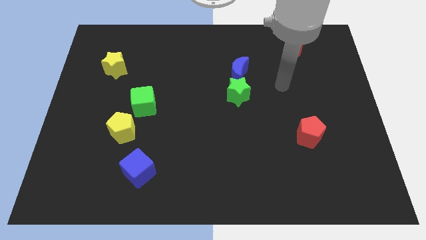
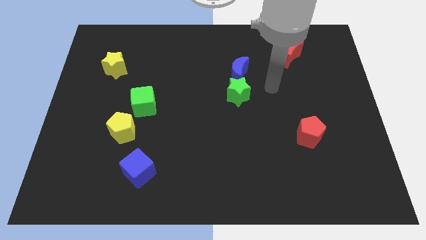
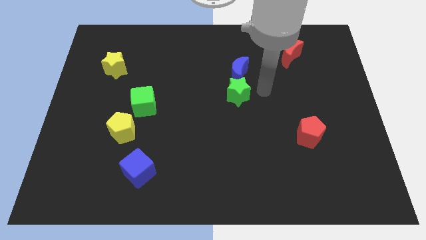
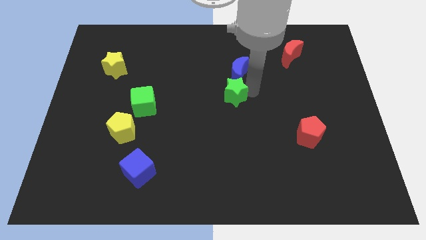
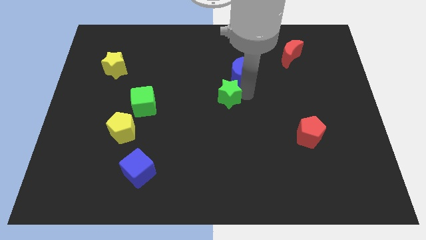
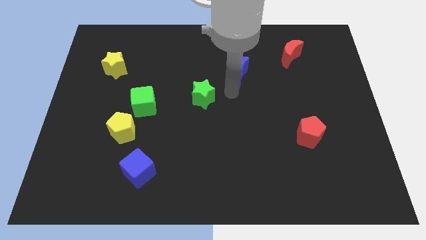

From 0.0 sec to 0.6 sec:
pull the blue moon apart from the green star

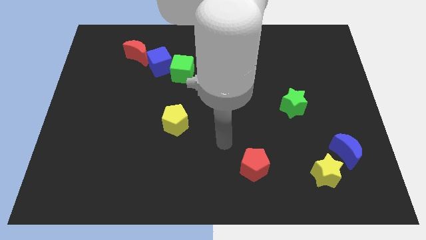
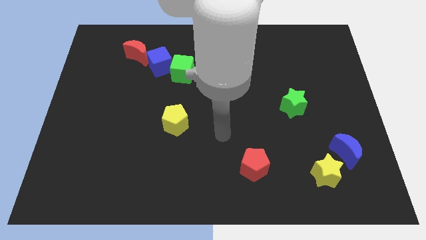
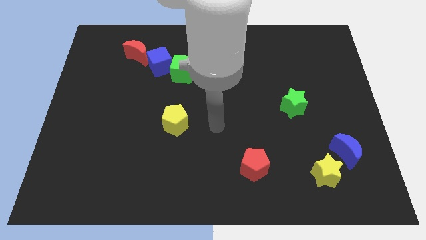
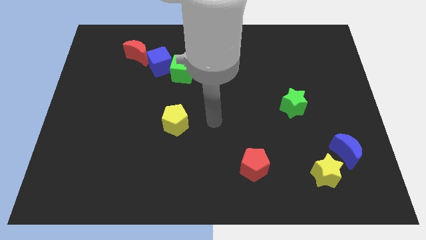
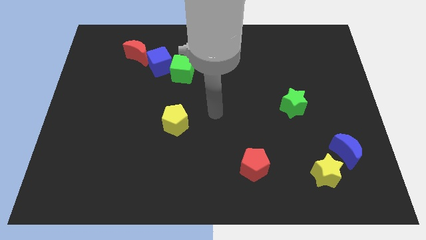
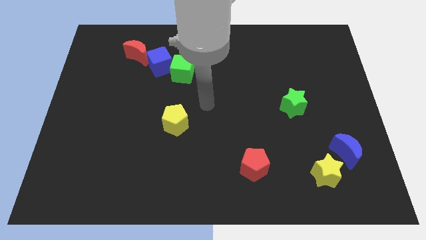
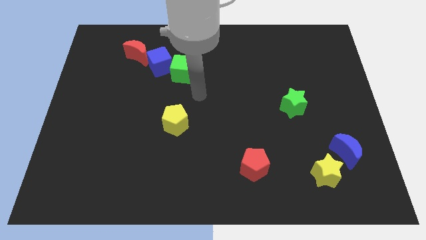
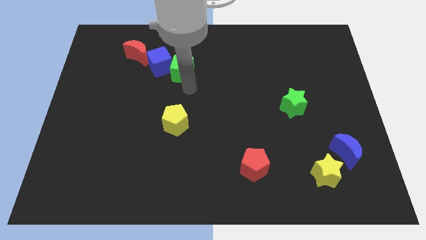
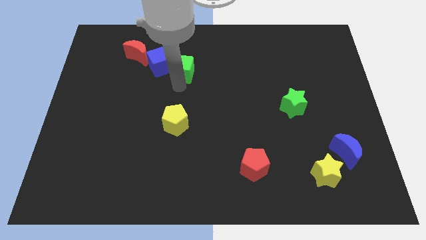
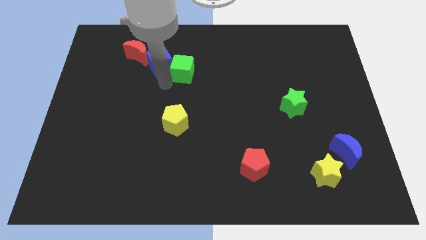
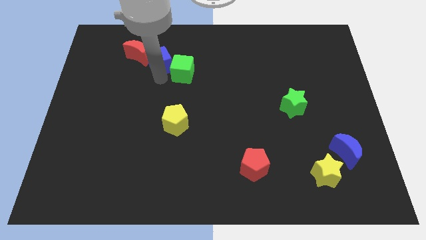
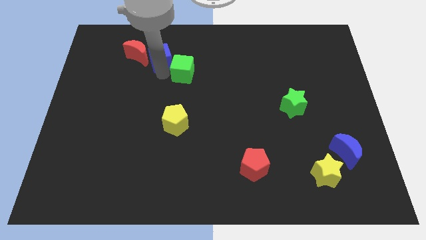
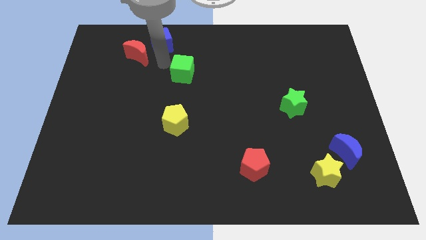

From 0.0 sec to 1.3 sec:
pull the green cube apart from the blue cube

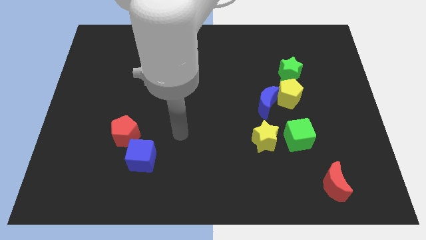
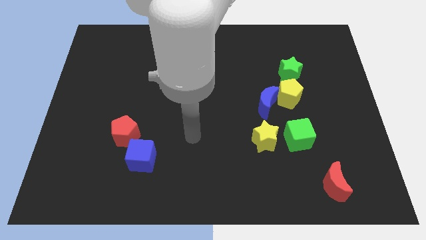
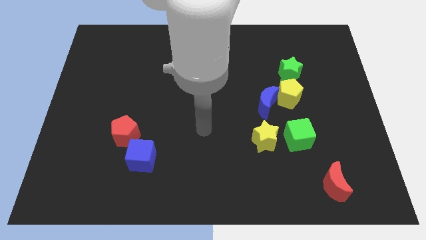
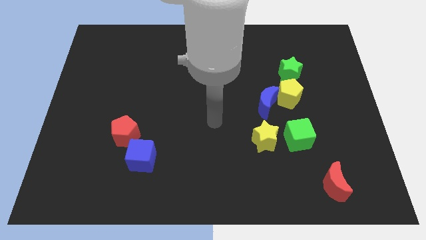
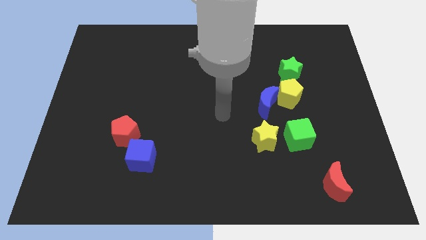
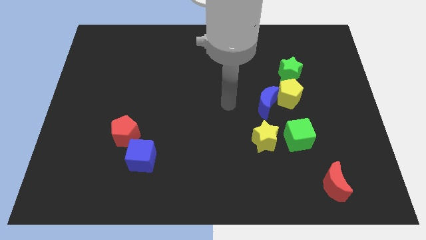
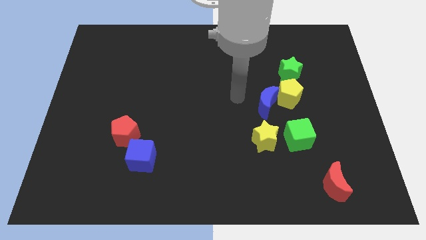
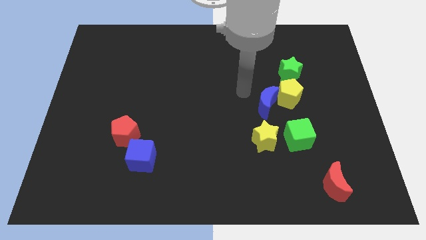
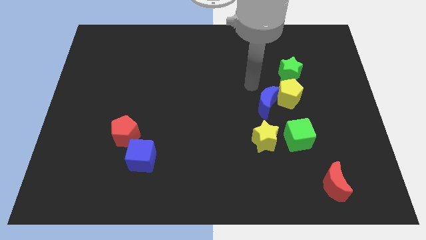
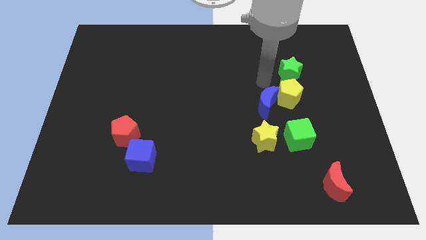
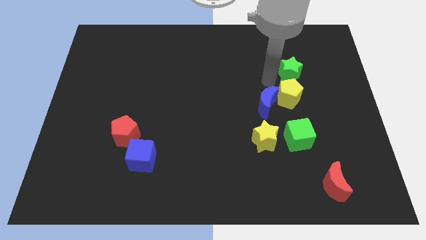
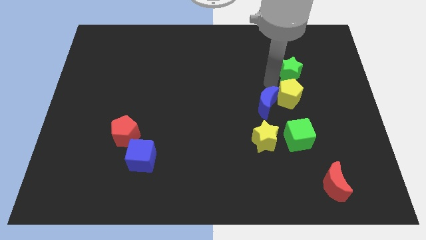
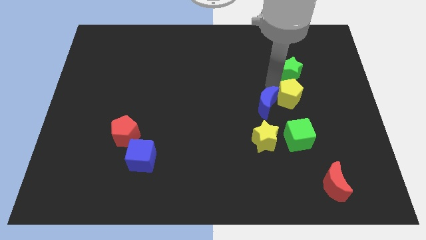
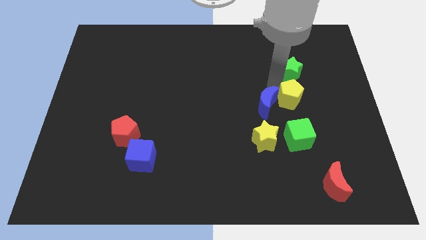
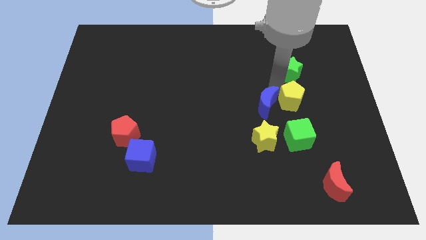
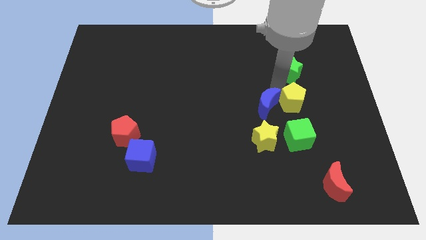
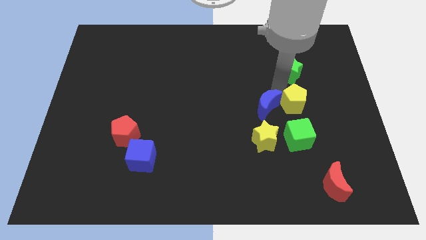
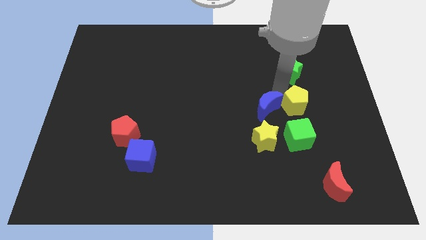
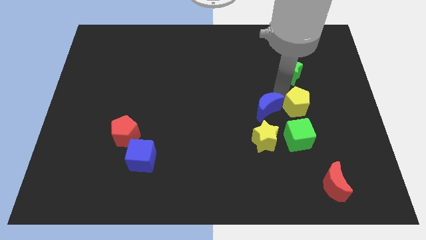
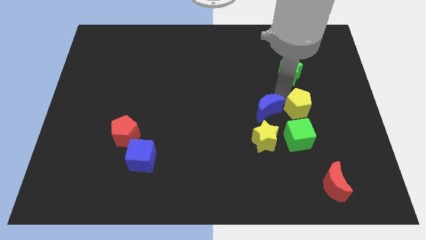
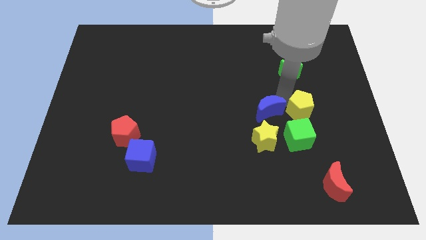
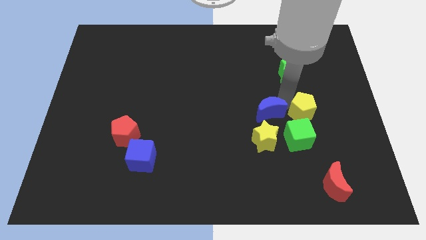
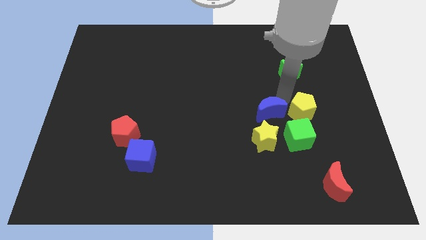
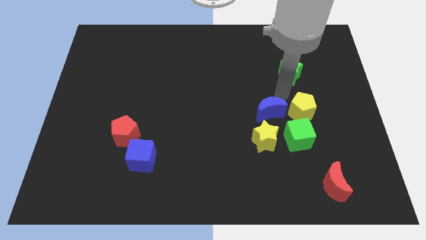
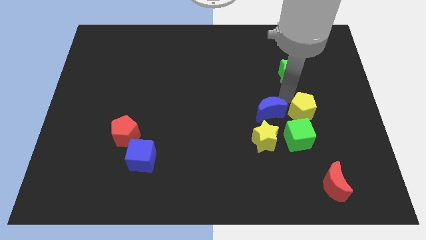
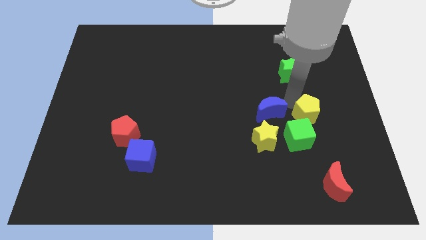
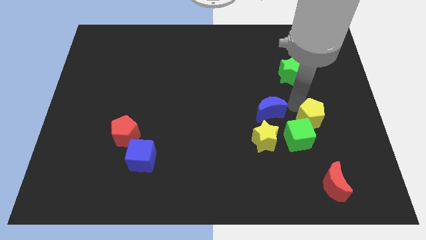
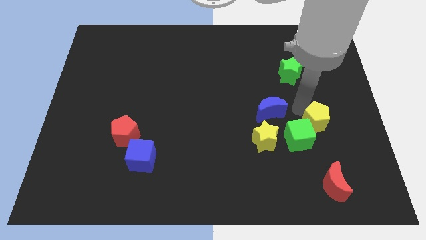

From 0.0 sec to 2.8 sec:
separate the yellow pentagon from the blue moon and green star

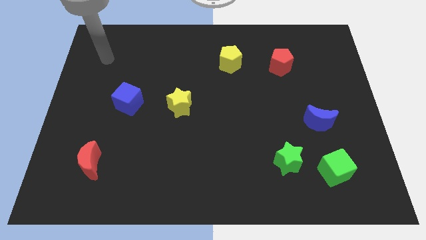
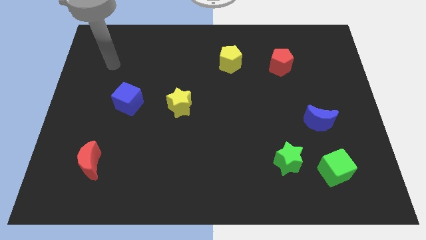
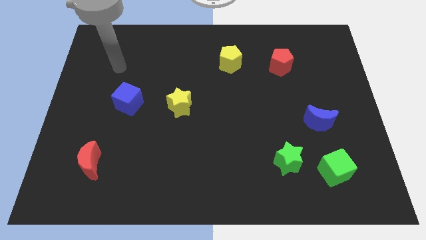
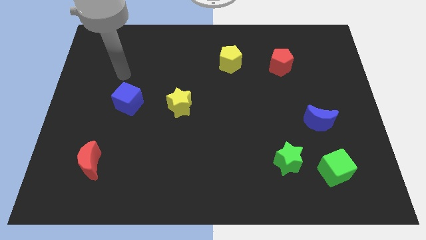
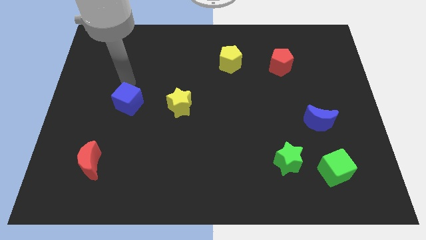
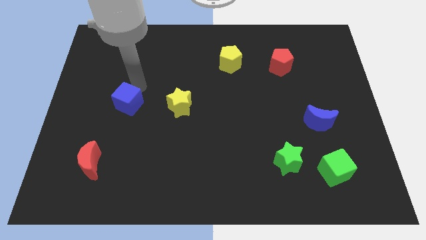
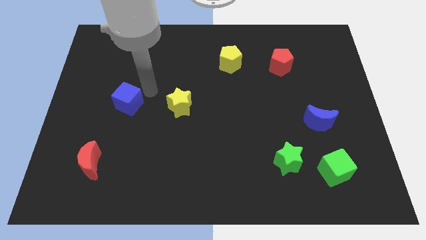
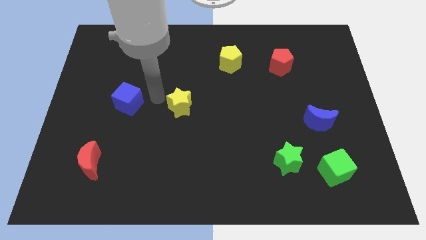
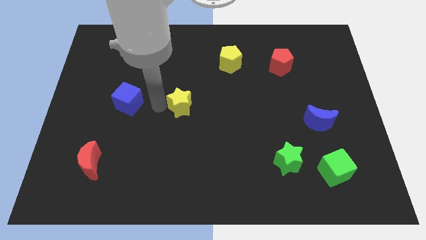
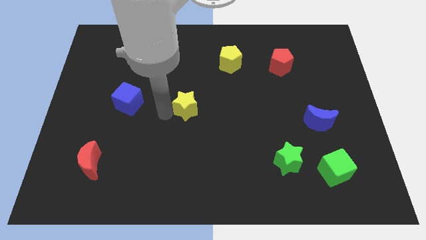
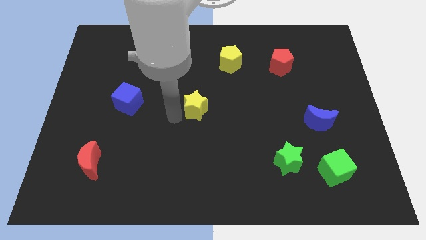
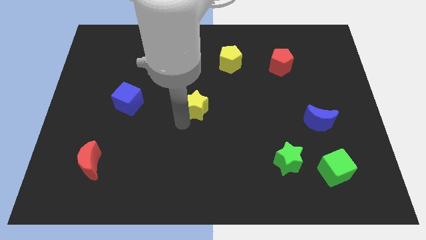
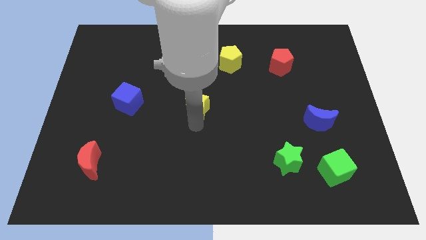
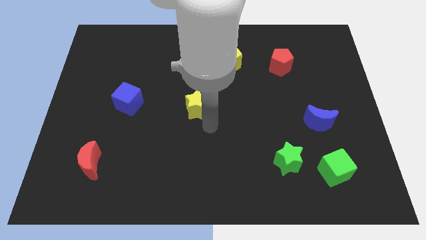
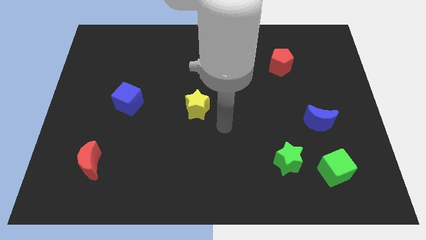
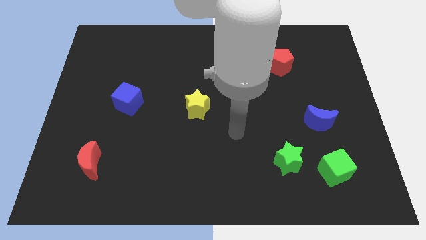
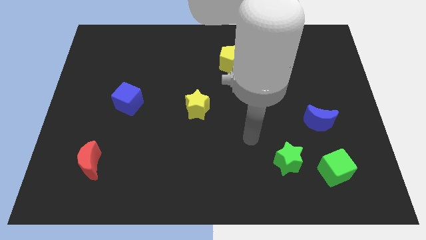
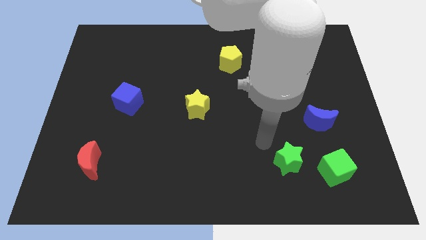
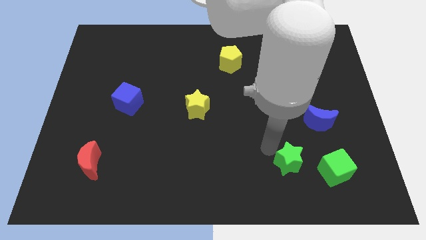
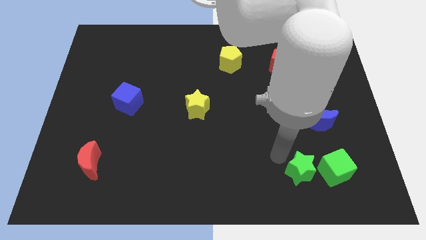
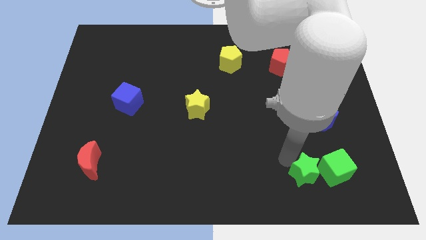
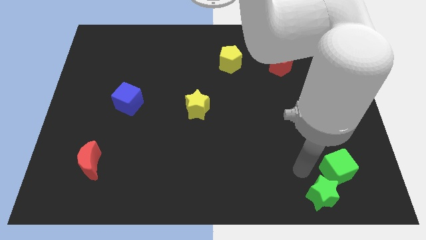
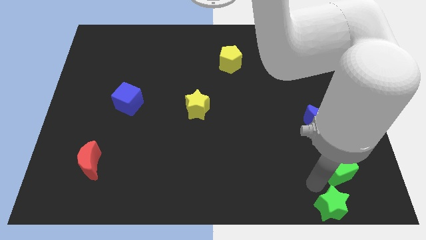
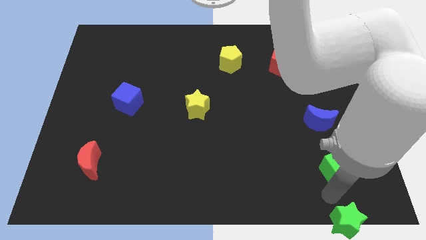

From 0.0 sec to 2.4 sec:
separate the green cube from the green star

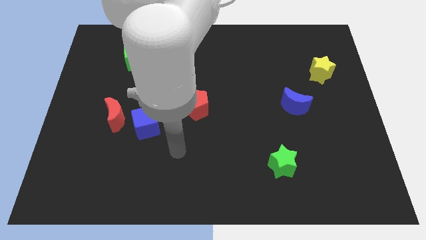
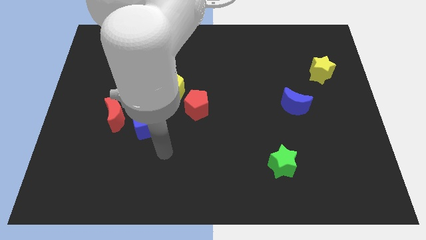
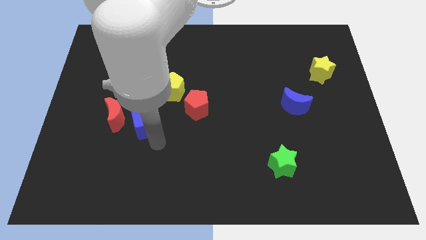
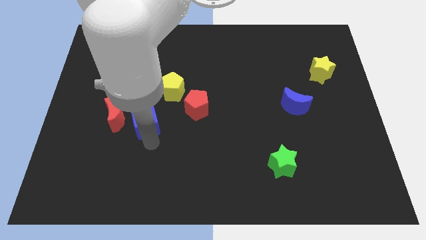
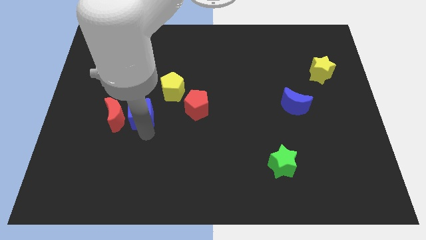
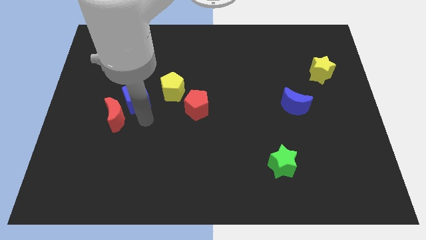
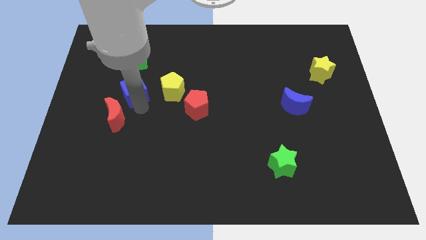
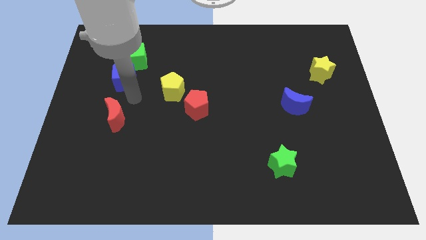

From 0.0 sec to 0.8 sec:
pull the red moon apart from the blue cube

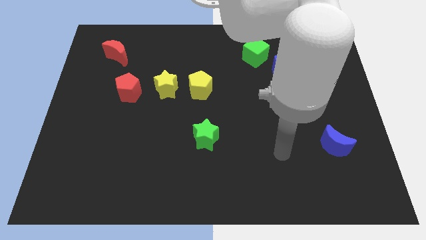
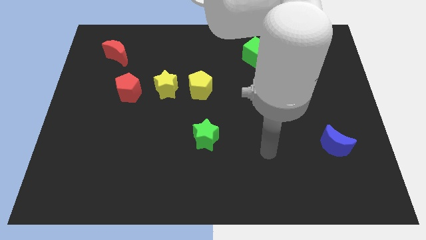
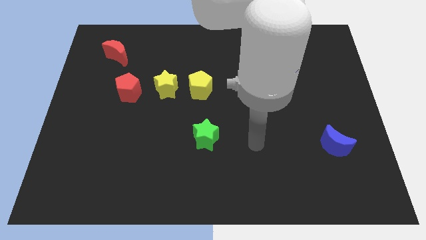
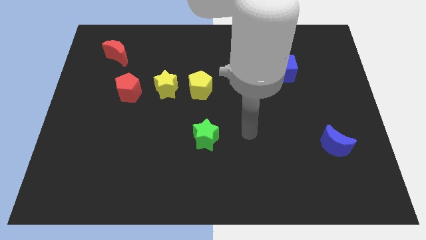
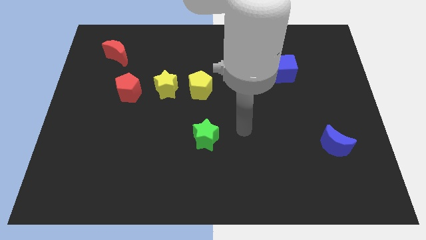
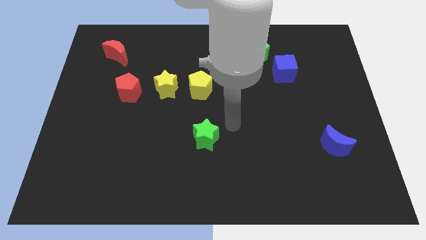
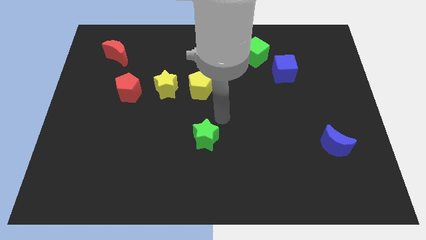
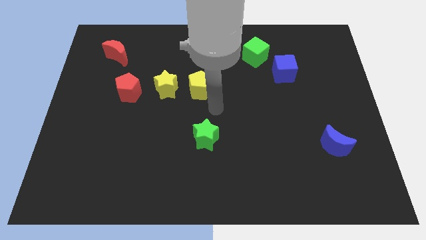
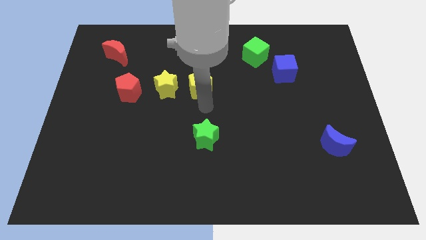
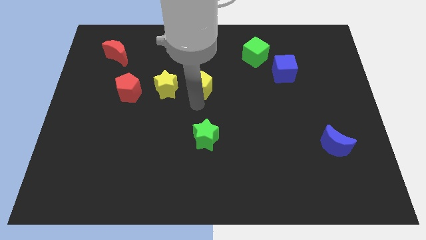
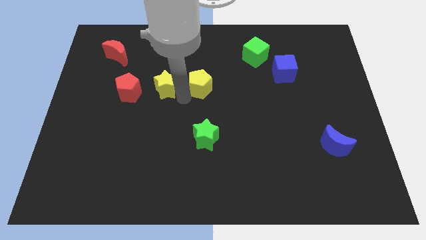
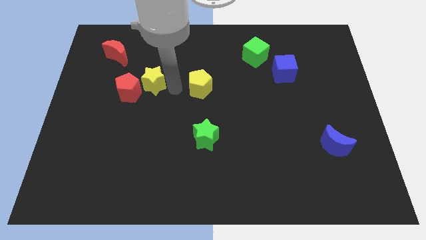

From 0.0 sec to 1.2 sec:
pull the yellow pentagon apart from the yellow star

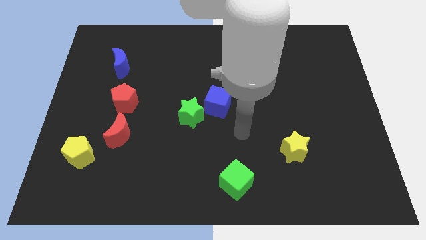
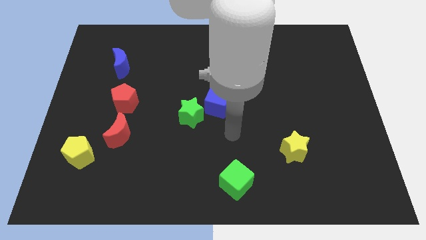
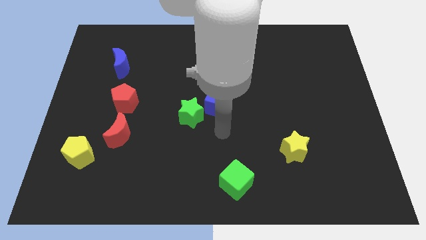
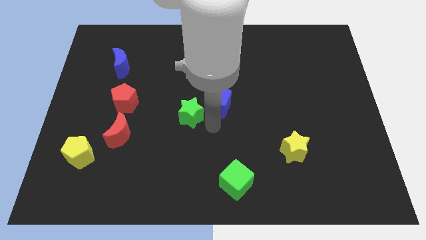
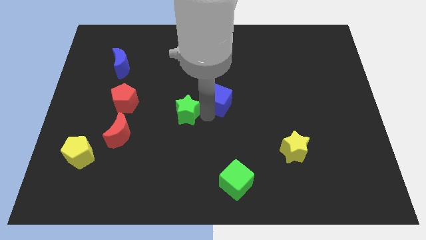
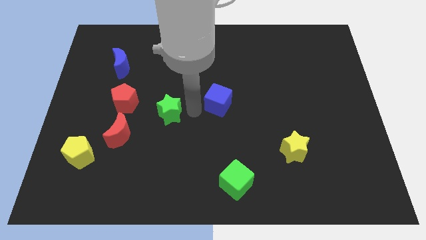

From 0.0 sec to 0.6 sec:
separate the blue cube from the green star
